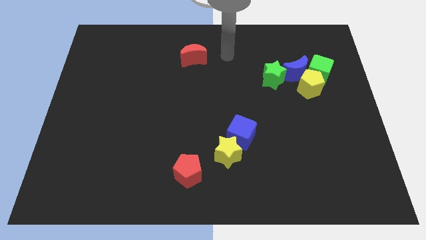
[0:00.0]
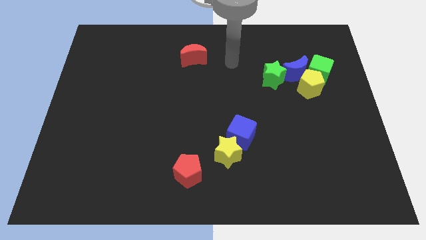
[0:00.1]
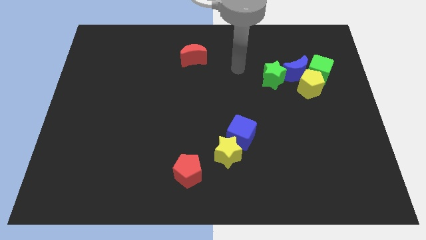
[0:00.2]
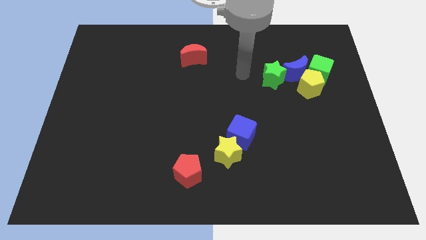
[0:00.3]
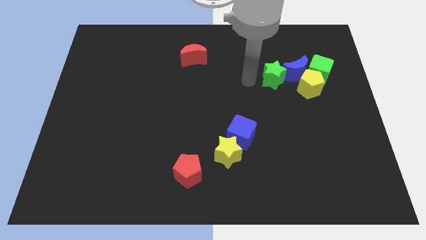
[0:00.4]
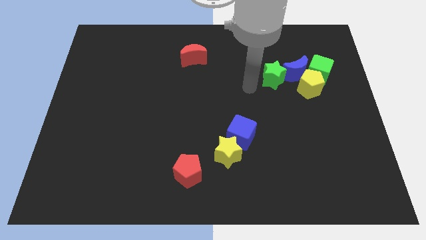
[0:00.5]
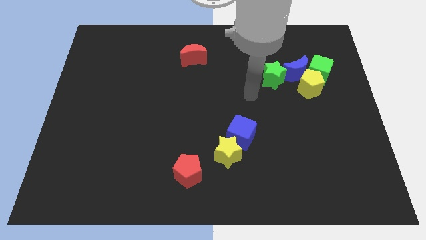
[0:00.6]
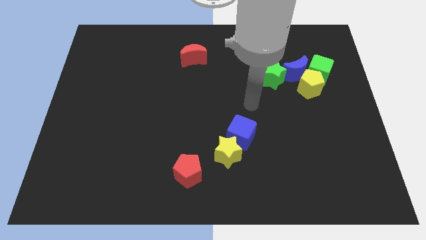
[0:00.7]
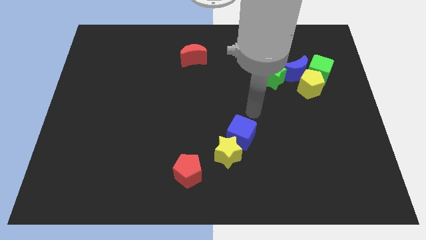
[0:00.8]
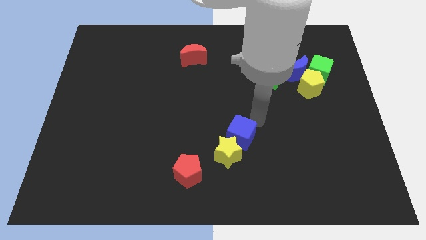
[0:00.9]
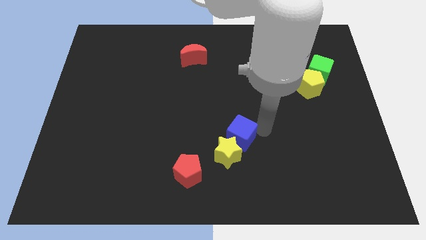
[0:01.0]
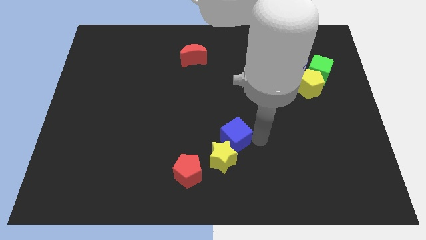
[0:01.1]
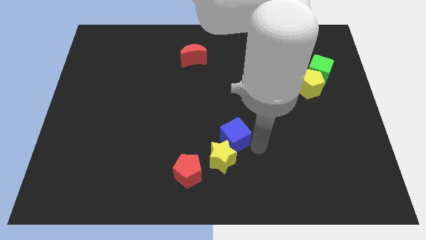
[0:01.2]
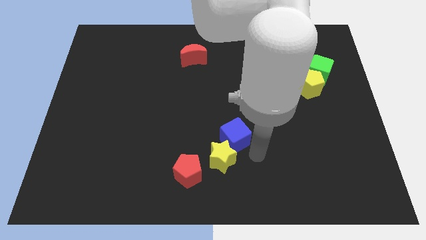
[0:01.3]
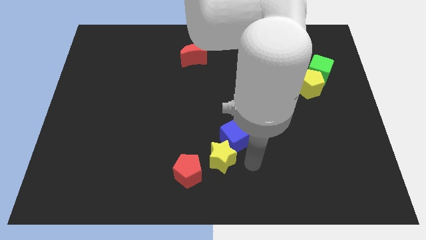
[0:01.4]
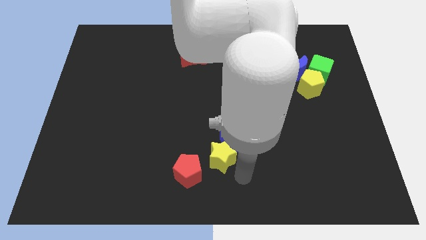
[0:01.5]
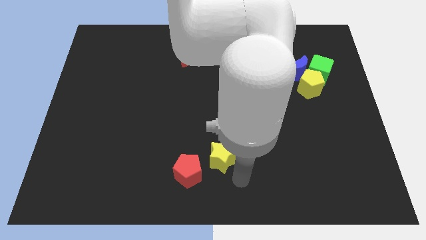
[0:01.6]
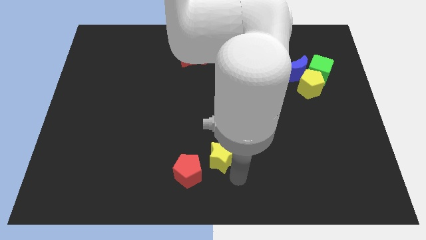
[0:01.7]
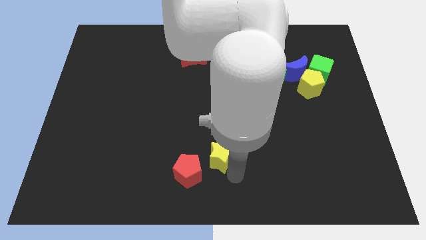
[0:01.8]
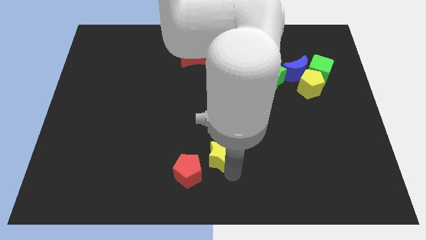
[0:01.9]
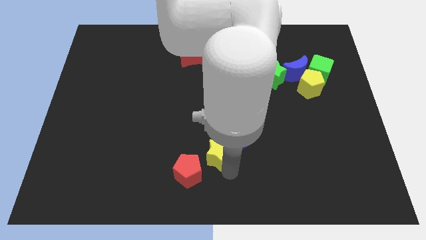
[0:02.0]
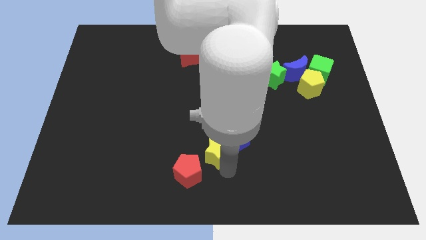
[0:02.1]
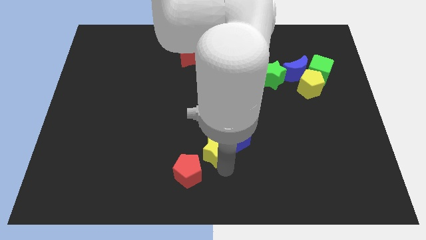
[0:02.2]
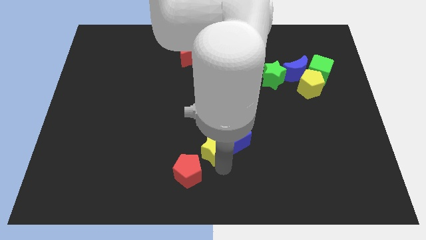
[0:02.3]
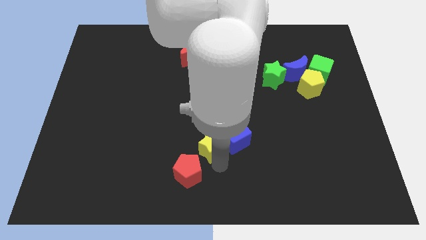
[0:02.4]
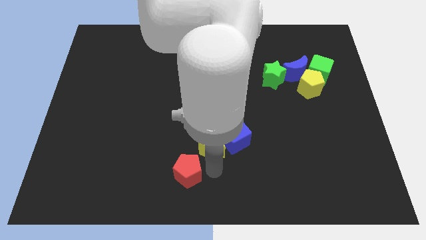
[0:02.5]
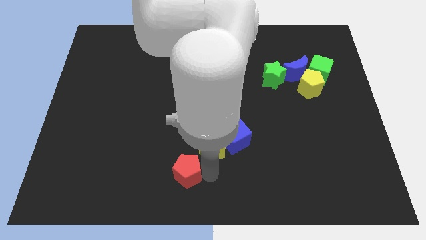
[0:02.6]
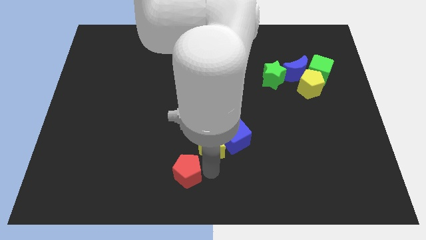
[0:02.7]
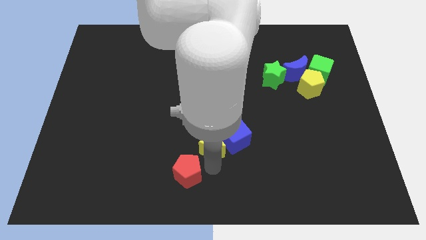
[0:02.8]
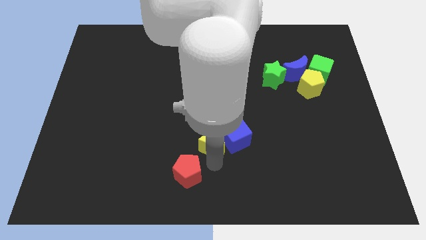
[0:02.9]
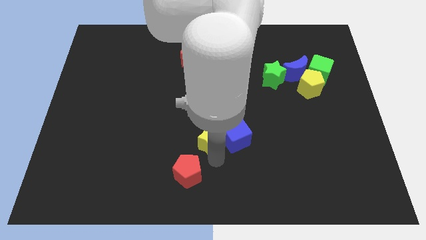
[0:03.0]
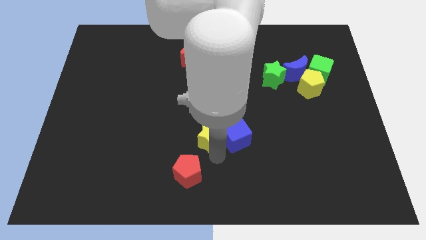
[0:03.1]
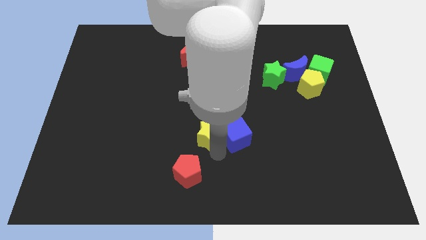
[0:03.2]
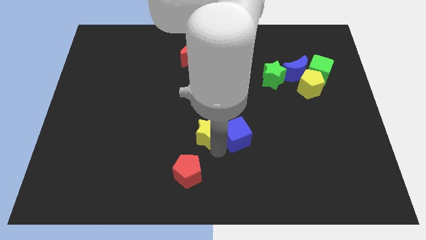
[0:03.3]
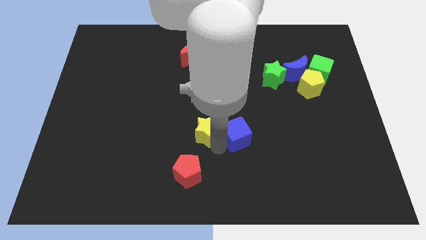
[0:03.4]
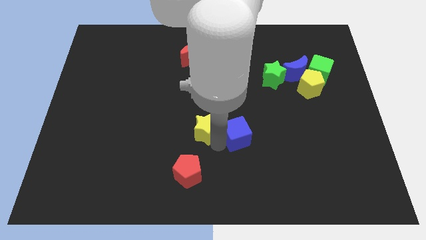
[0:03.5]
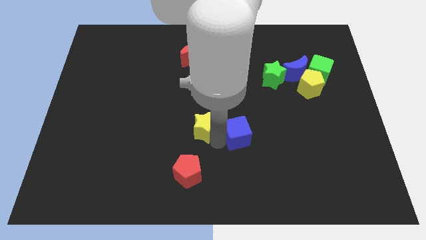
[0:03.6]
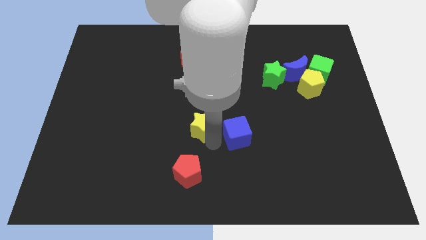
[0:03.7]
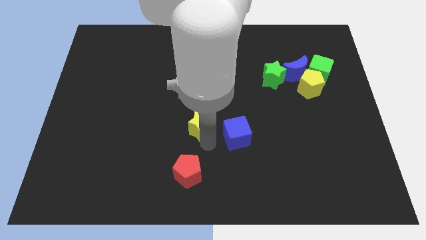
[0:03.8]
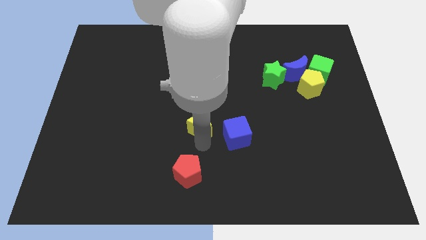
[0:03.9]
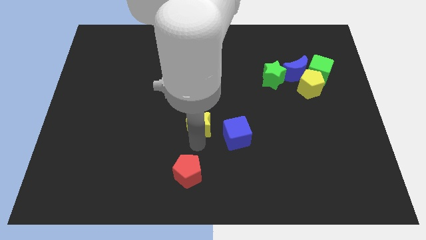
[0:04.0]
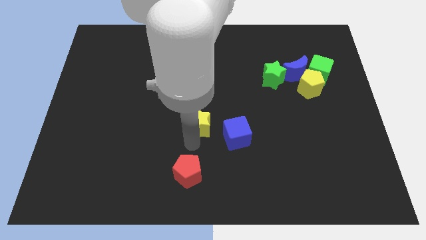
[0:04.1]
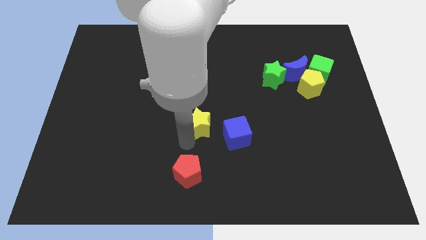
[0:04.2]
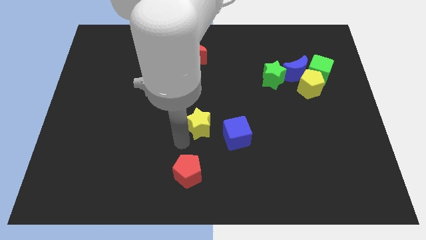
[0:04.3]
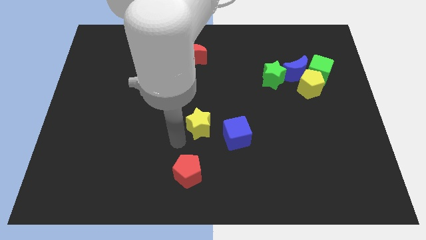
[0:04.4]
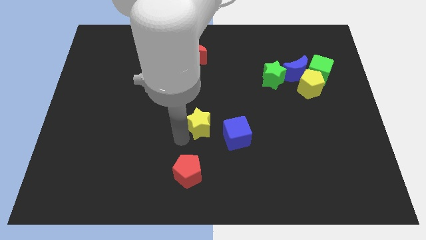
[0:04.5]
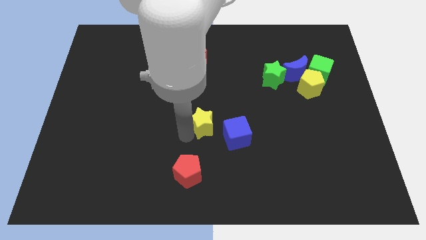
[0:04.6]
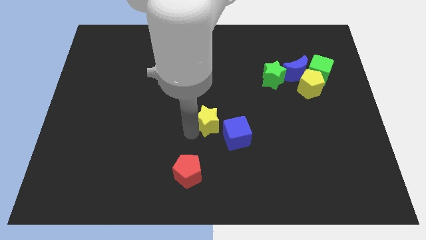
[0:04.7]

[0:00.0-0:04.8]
move the yellow star a little bit up

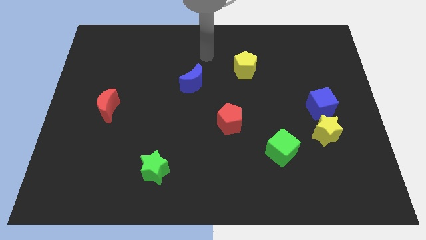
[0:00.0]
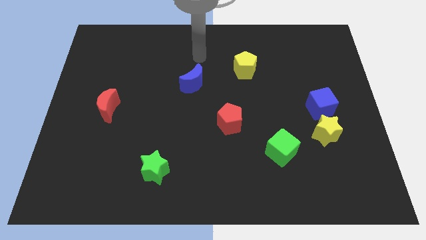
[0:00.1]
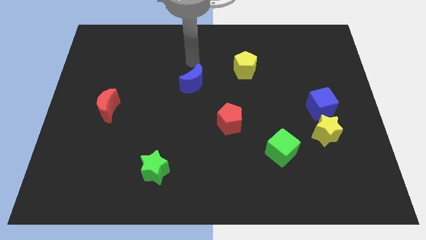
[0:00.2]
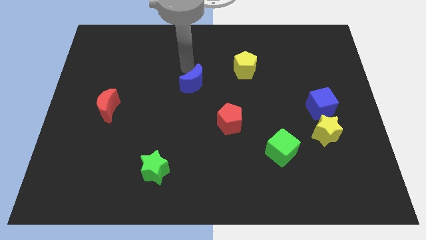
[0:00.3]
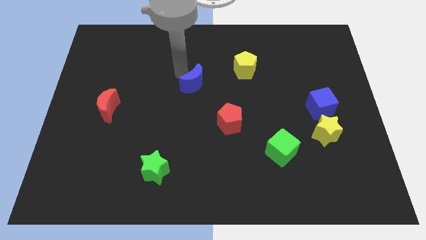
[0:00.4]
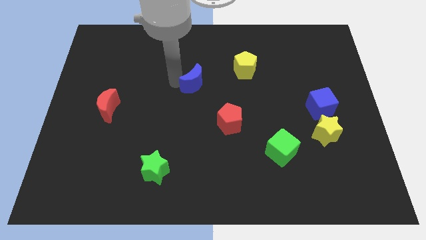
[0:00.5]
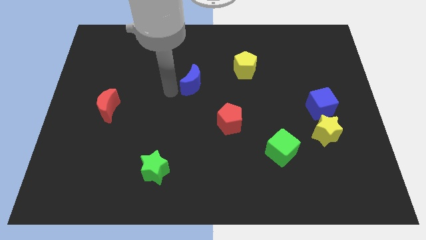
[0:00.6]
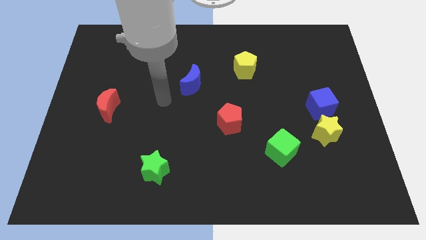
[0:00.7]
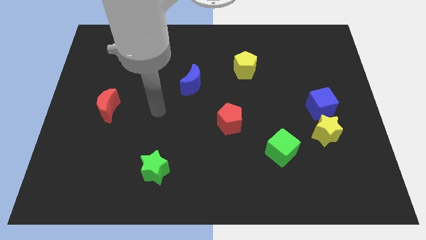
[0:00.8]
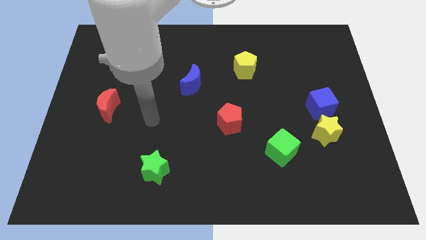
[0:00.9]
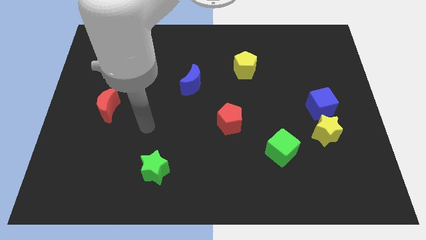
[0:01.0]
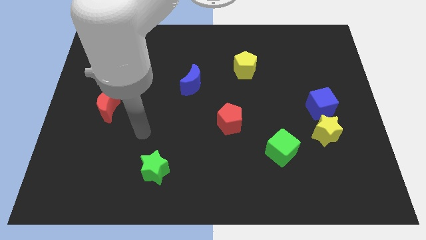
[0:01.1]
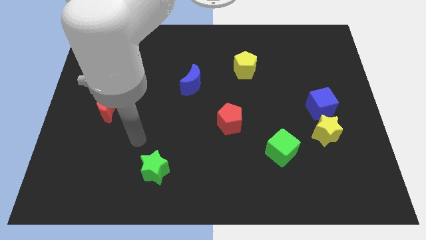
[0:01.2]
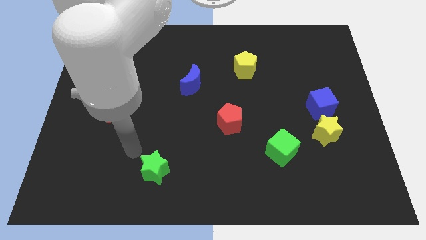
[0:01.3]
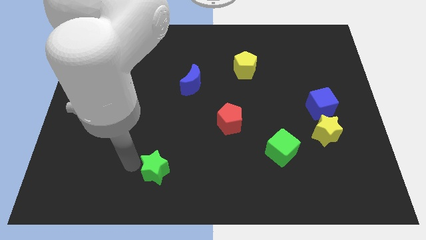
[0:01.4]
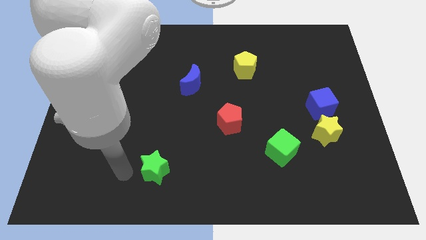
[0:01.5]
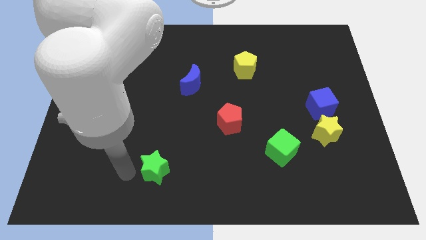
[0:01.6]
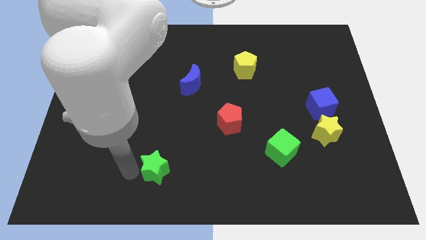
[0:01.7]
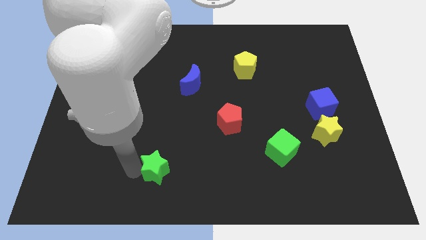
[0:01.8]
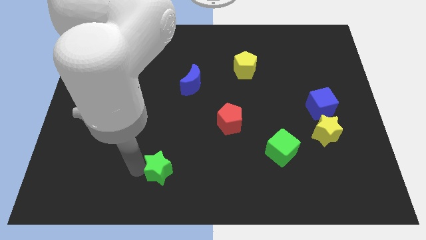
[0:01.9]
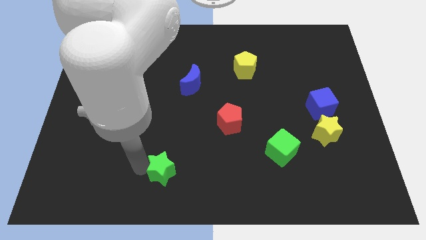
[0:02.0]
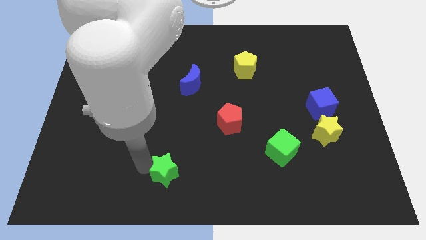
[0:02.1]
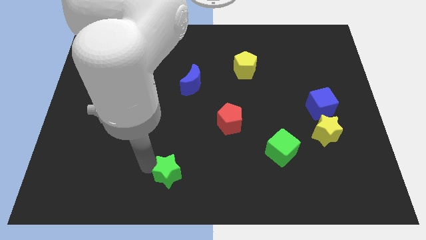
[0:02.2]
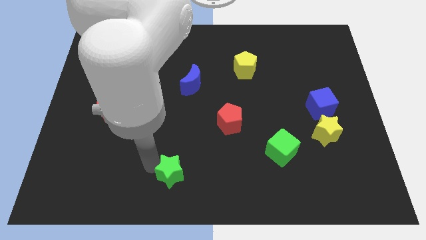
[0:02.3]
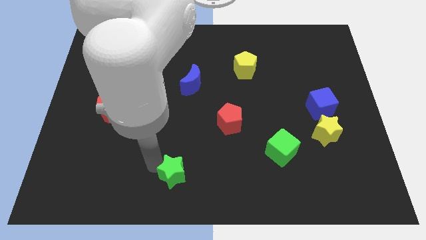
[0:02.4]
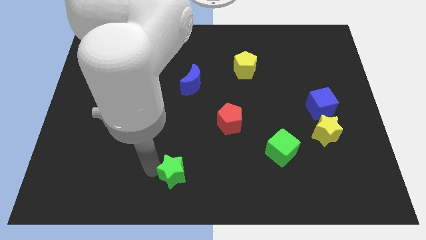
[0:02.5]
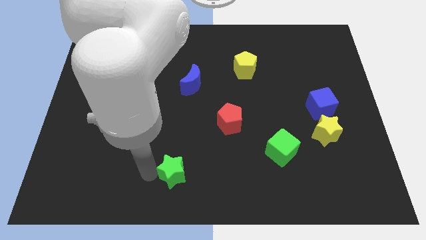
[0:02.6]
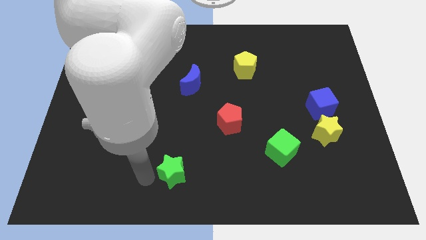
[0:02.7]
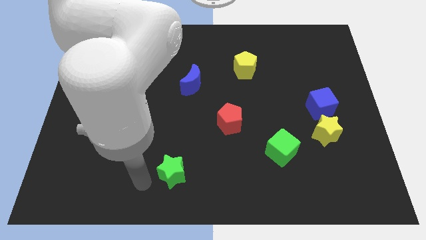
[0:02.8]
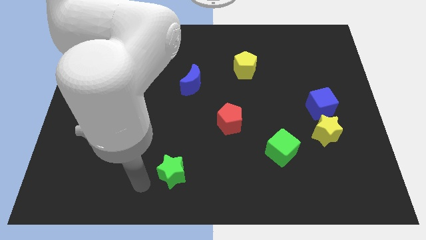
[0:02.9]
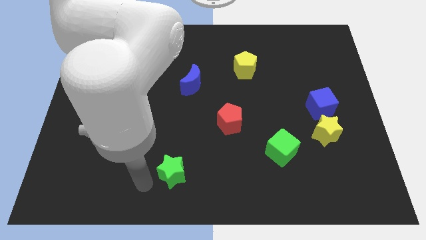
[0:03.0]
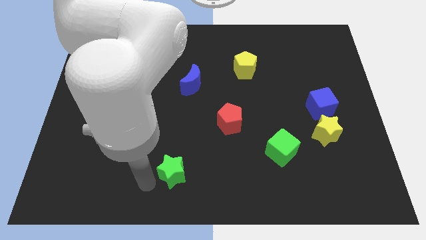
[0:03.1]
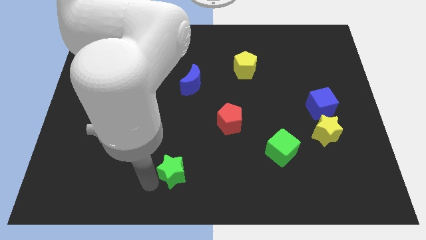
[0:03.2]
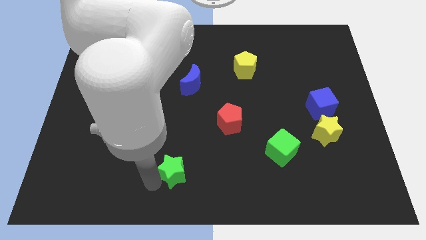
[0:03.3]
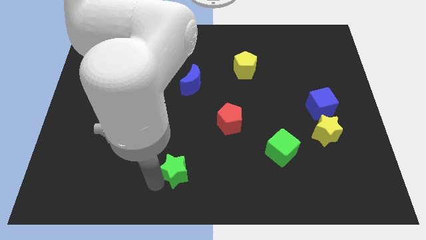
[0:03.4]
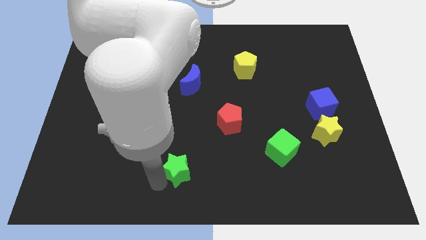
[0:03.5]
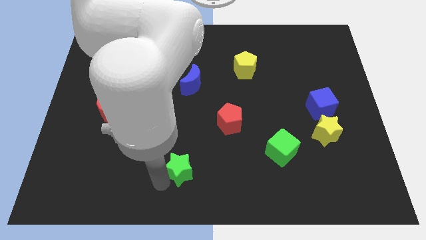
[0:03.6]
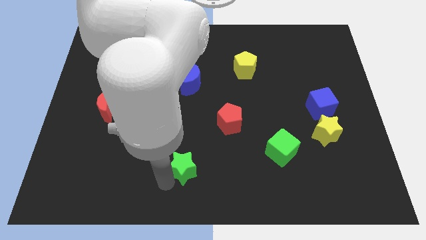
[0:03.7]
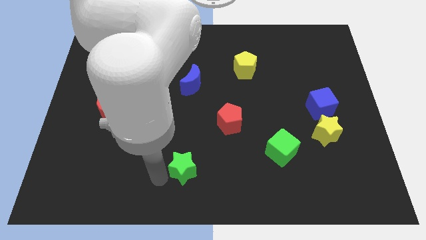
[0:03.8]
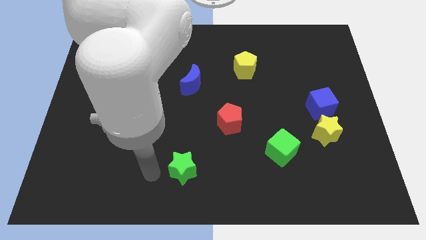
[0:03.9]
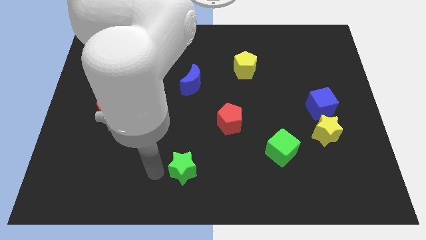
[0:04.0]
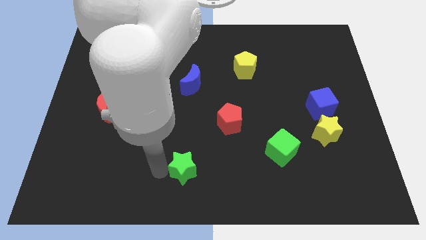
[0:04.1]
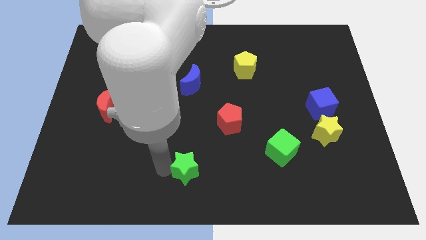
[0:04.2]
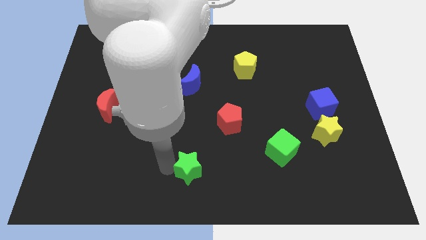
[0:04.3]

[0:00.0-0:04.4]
slightly slide the green star to the right
